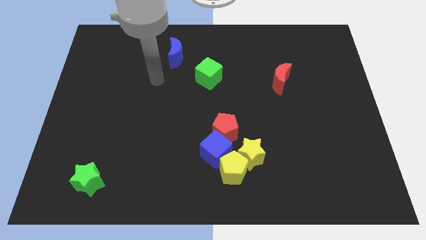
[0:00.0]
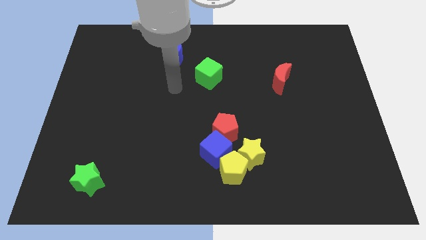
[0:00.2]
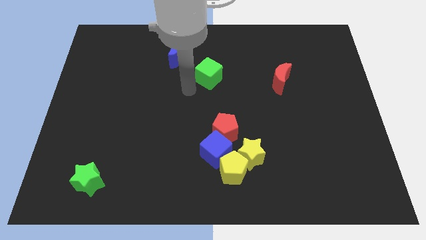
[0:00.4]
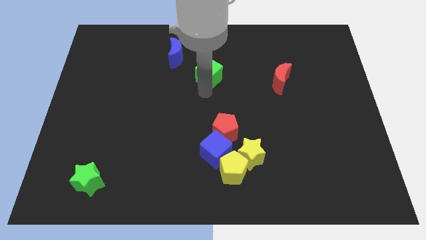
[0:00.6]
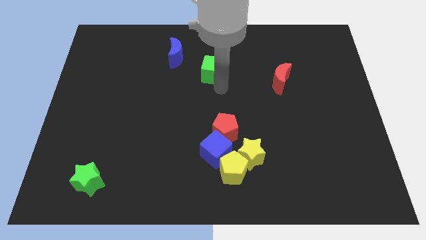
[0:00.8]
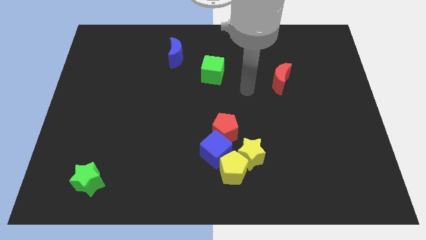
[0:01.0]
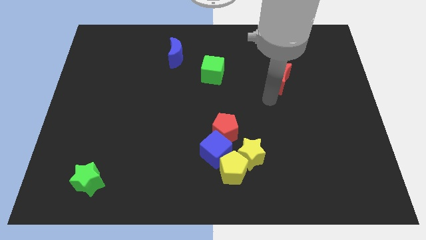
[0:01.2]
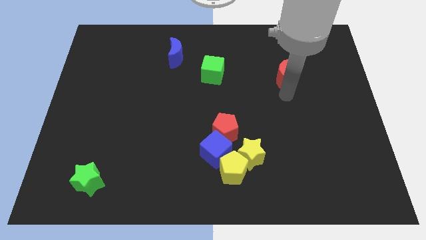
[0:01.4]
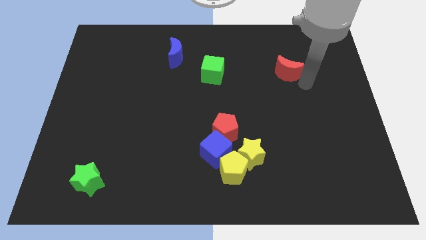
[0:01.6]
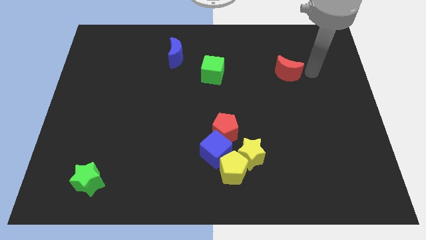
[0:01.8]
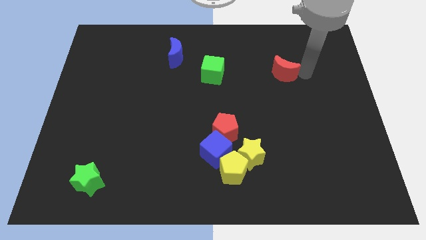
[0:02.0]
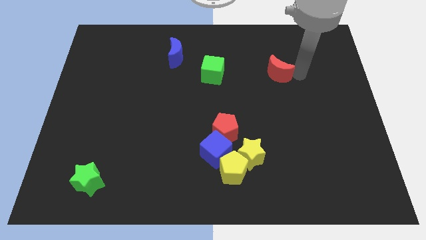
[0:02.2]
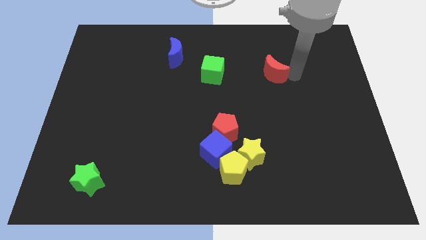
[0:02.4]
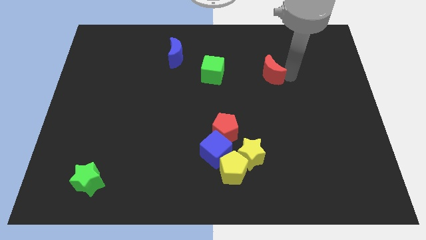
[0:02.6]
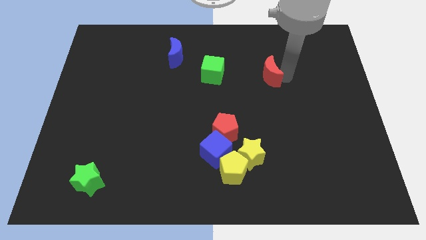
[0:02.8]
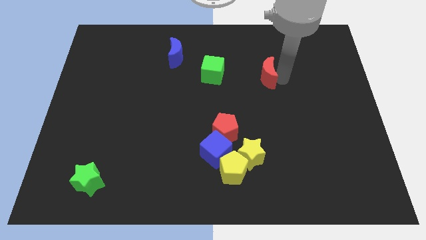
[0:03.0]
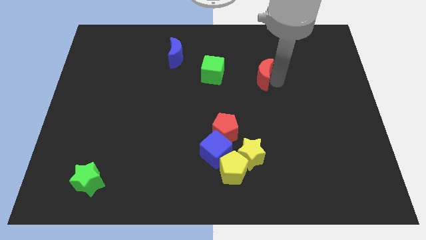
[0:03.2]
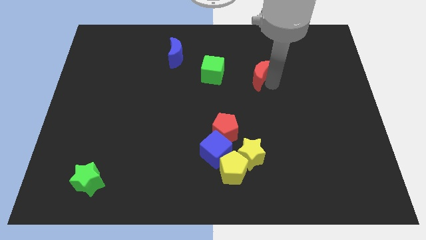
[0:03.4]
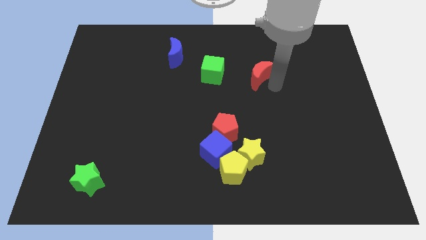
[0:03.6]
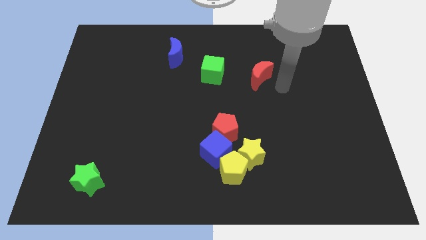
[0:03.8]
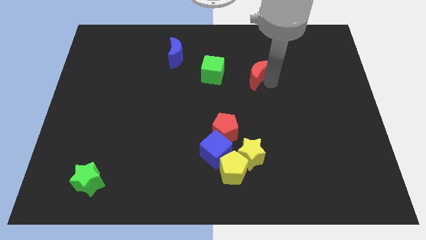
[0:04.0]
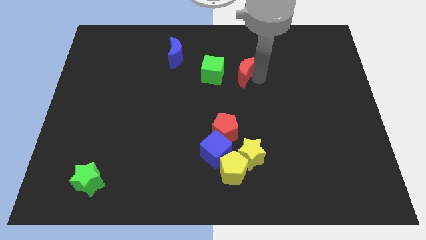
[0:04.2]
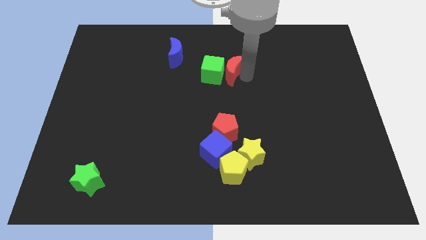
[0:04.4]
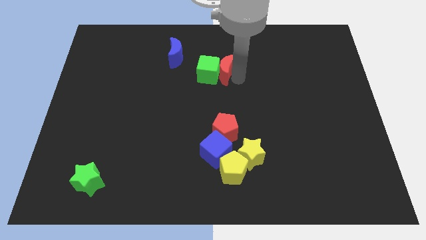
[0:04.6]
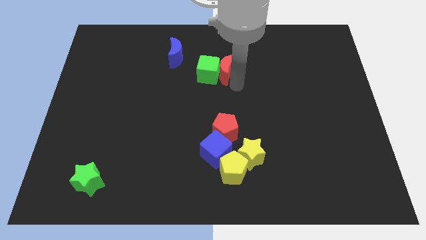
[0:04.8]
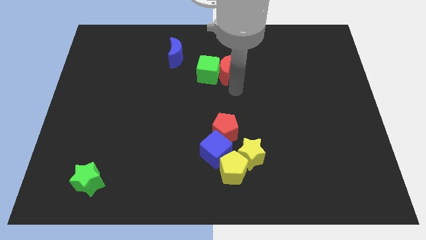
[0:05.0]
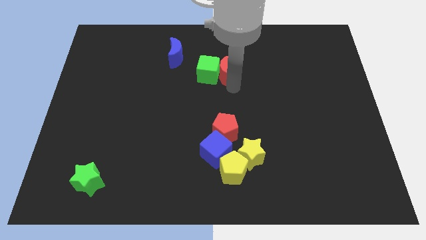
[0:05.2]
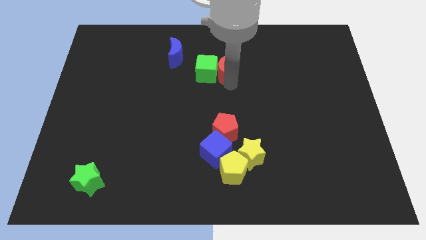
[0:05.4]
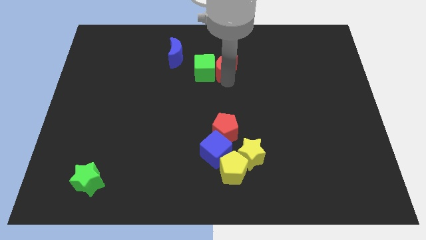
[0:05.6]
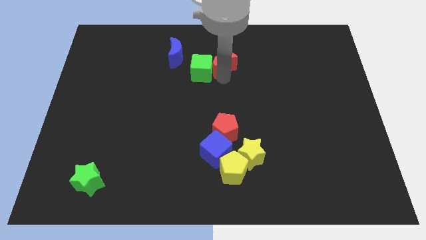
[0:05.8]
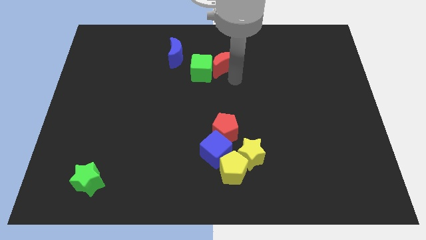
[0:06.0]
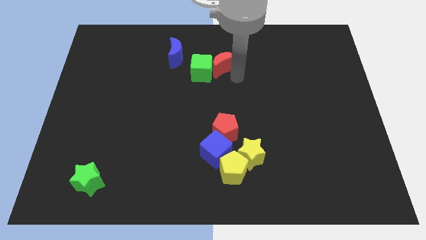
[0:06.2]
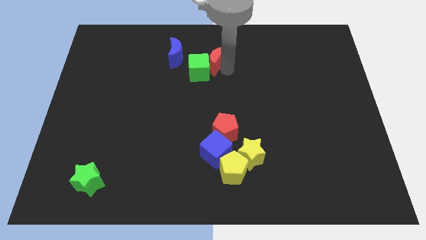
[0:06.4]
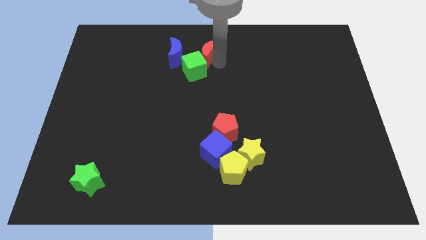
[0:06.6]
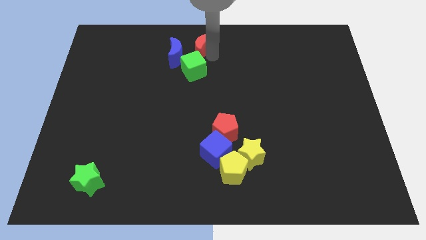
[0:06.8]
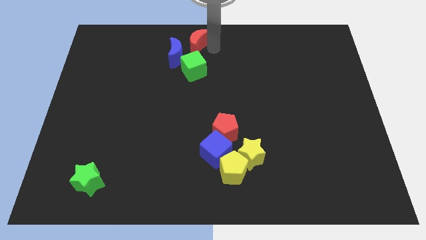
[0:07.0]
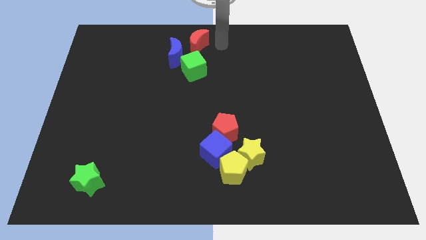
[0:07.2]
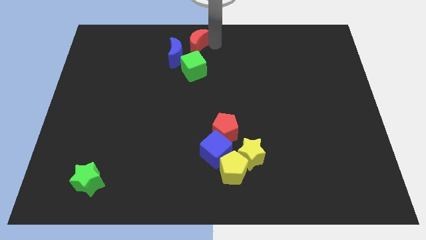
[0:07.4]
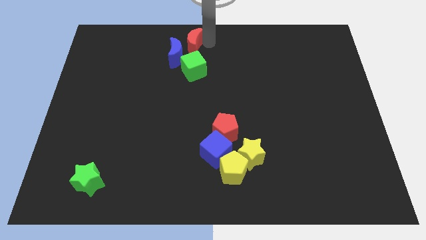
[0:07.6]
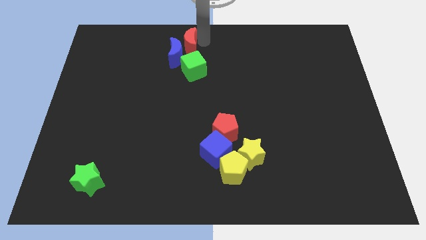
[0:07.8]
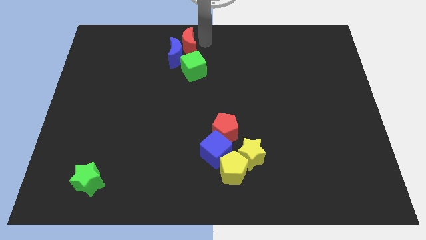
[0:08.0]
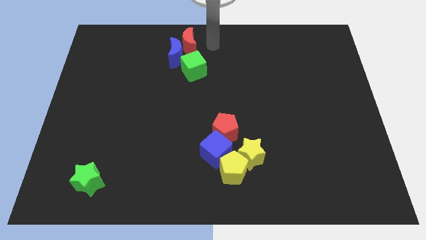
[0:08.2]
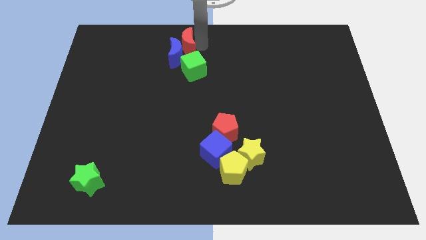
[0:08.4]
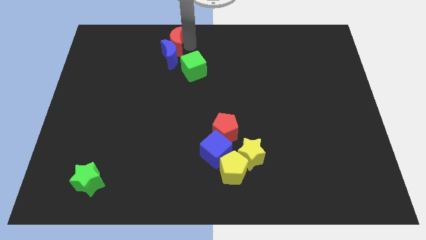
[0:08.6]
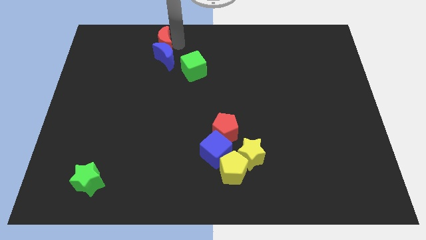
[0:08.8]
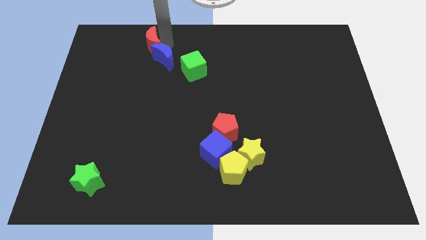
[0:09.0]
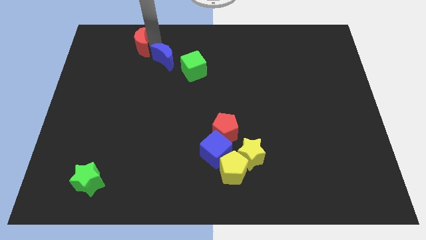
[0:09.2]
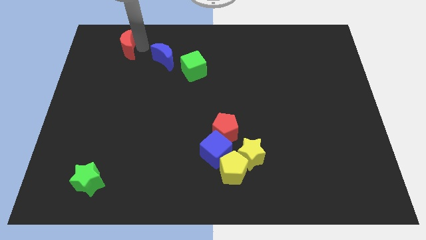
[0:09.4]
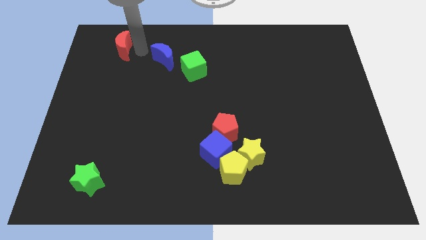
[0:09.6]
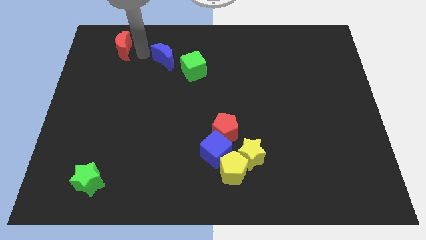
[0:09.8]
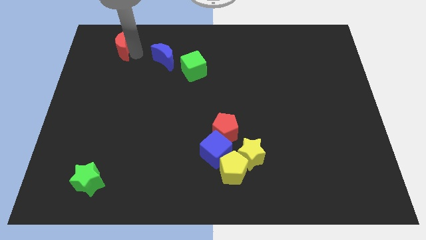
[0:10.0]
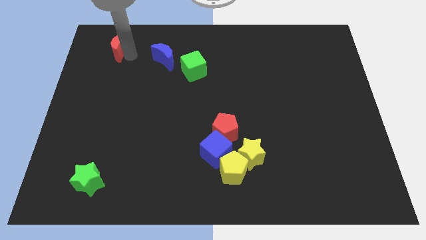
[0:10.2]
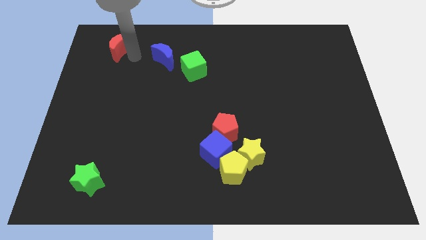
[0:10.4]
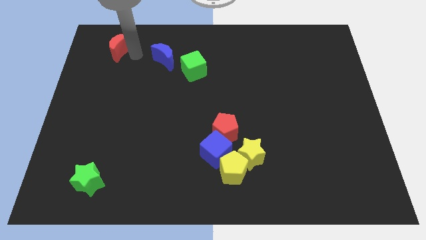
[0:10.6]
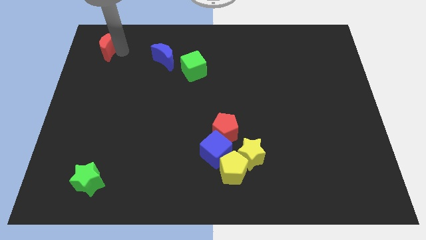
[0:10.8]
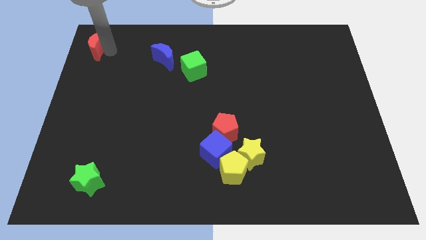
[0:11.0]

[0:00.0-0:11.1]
move the red moon to the upper left corner
